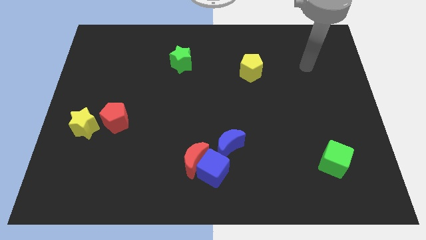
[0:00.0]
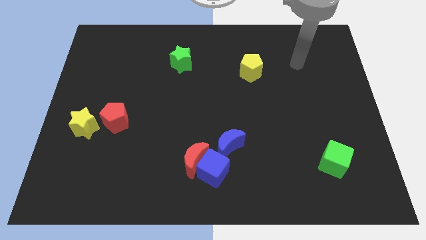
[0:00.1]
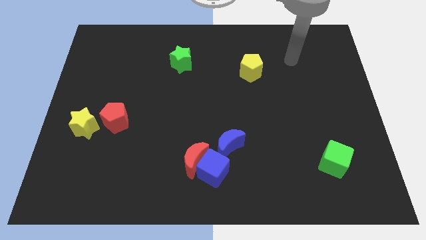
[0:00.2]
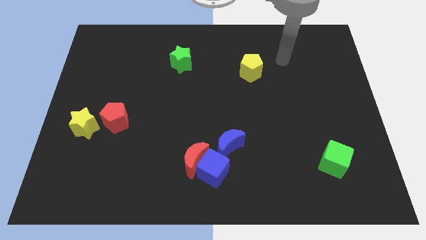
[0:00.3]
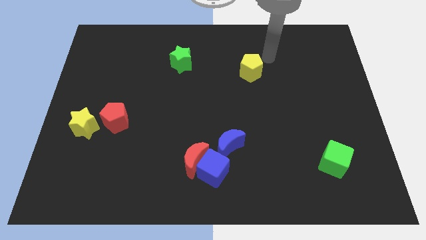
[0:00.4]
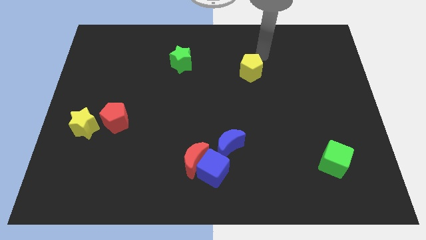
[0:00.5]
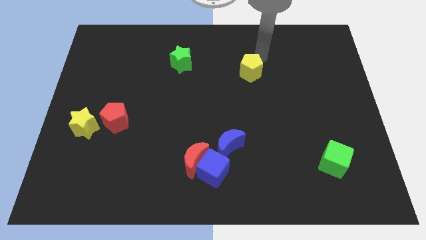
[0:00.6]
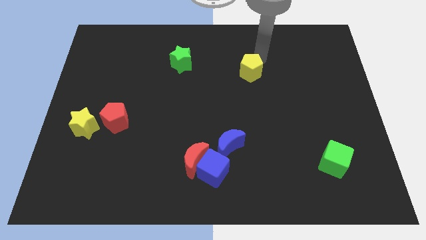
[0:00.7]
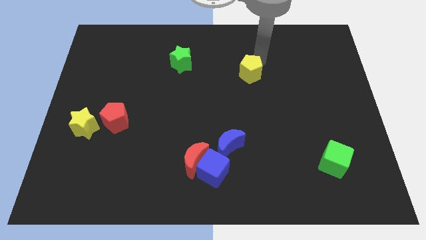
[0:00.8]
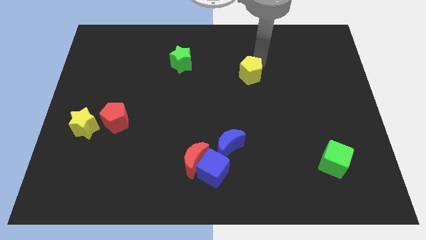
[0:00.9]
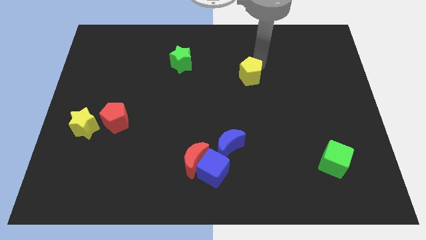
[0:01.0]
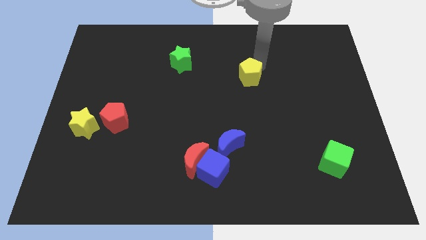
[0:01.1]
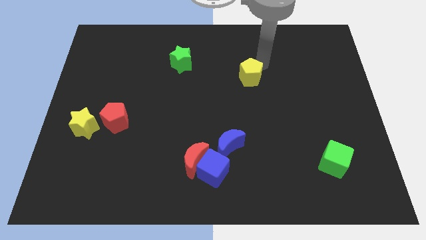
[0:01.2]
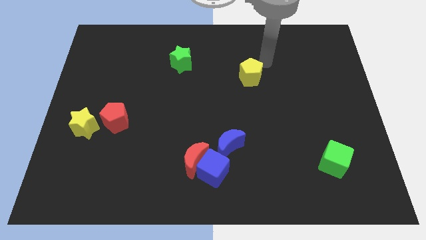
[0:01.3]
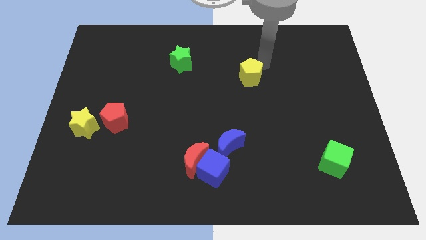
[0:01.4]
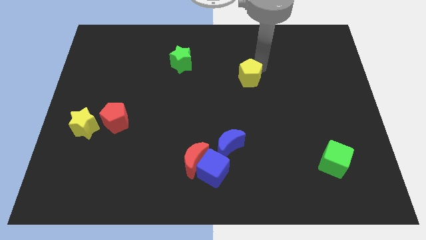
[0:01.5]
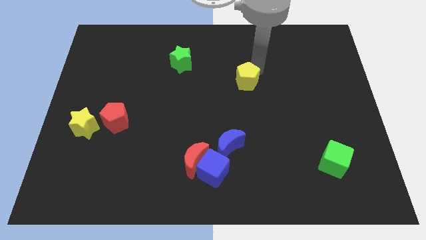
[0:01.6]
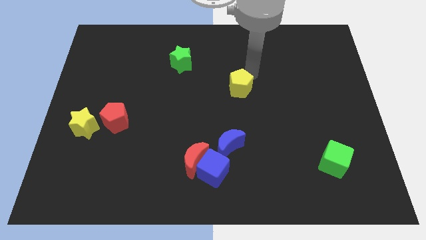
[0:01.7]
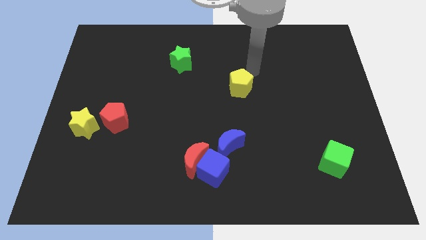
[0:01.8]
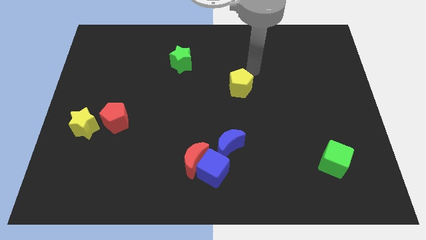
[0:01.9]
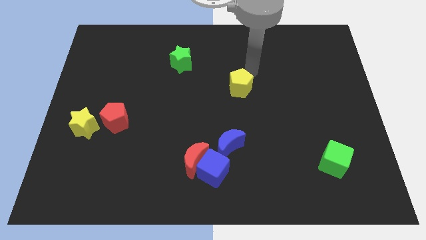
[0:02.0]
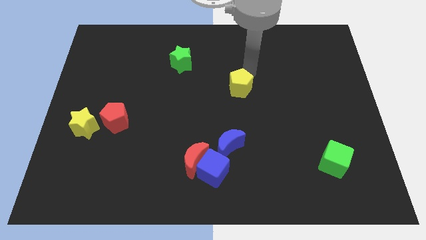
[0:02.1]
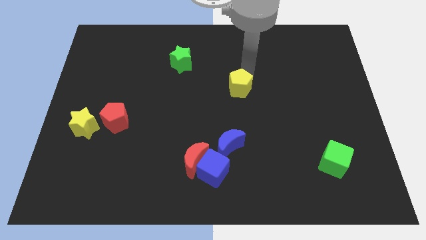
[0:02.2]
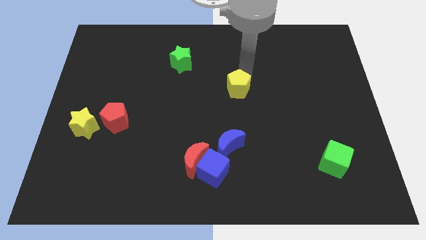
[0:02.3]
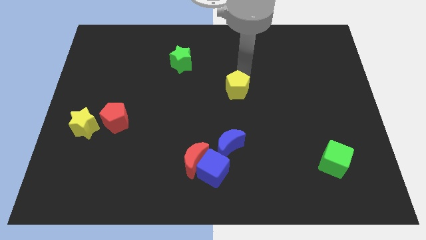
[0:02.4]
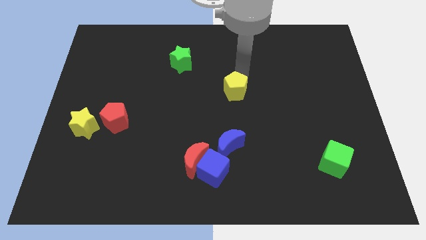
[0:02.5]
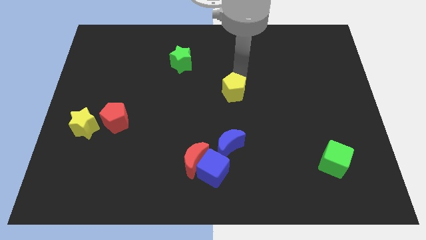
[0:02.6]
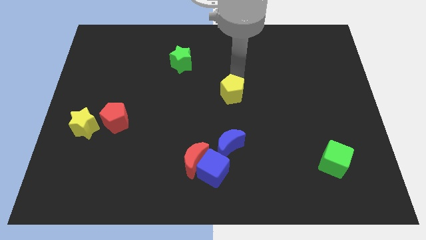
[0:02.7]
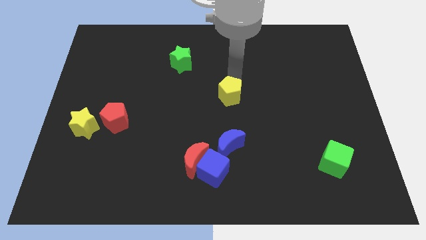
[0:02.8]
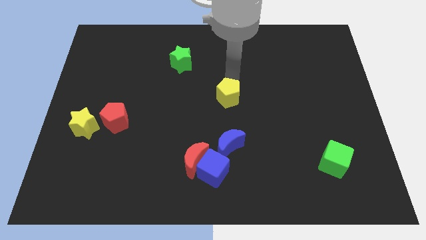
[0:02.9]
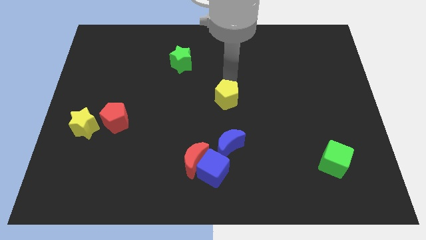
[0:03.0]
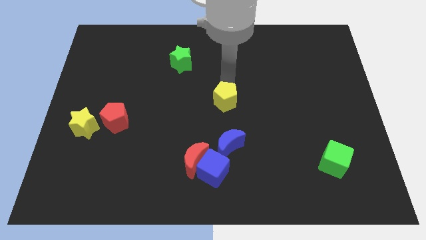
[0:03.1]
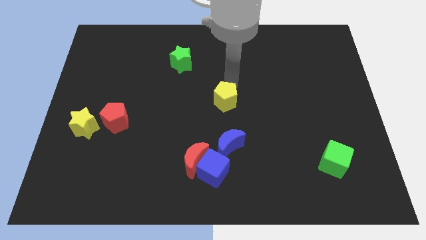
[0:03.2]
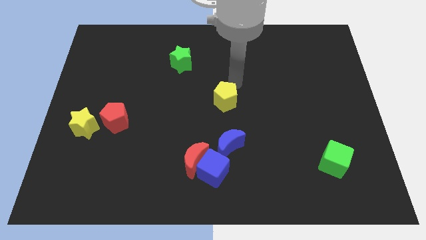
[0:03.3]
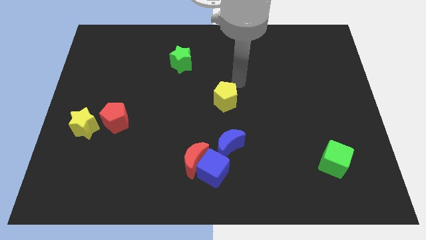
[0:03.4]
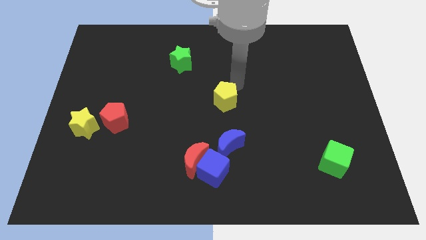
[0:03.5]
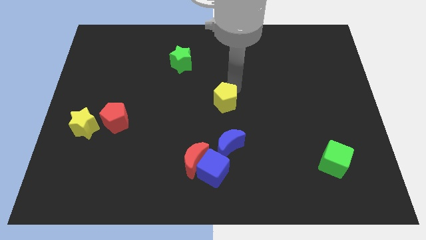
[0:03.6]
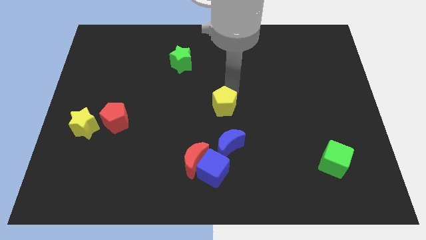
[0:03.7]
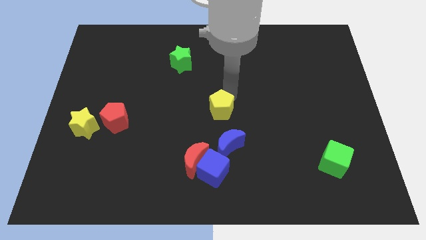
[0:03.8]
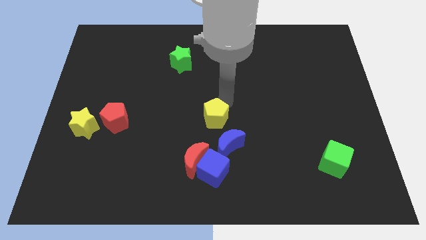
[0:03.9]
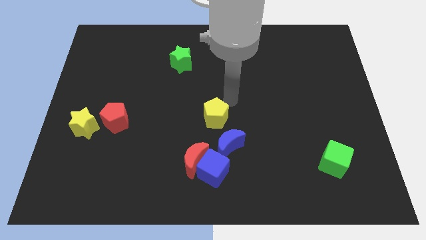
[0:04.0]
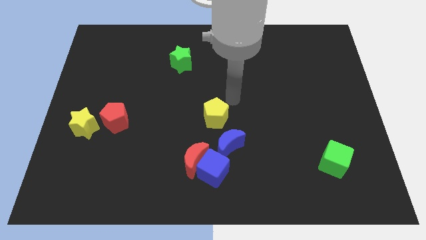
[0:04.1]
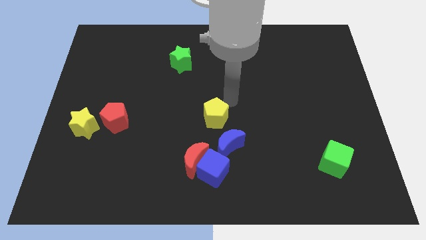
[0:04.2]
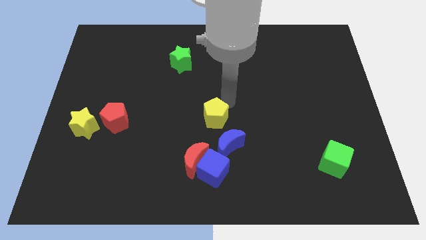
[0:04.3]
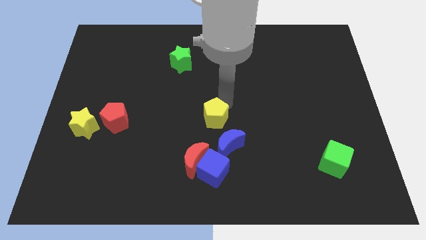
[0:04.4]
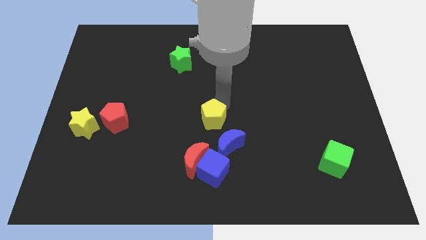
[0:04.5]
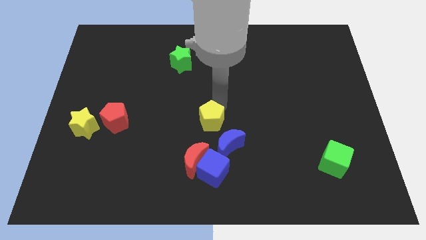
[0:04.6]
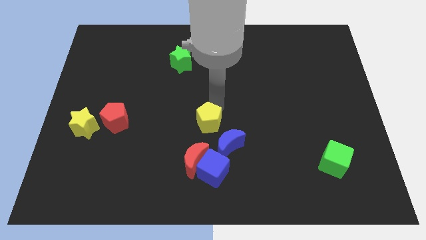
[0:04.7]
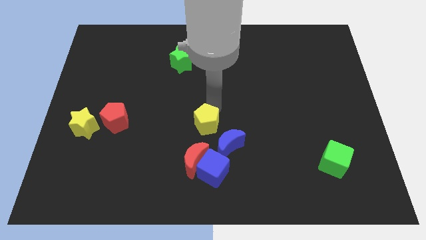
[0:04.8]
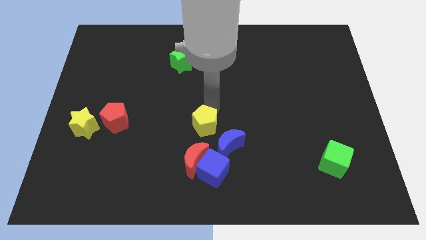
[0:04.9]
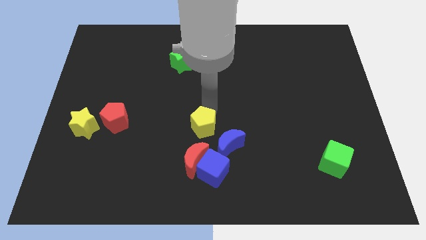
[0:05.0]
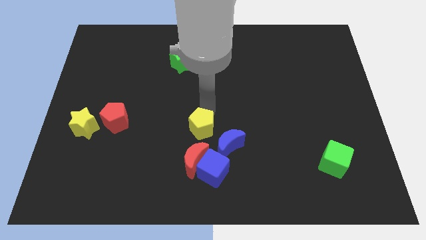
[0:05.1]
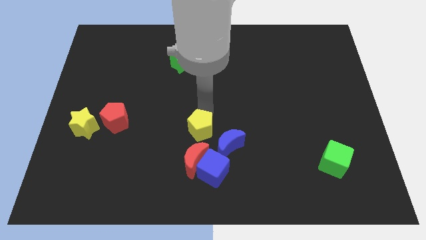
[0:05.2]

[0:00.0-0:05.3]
slide the yellow pentagon to the left of the blue moon

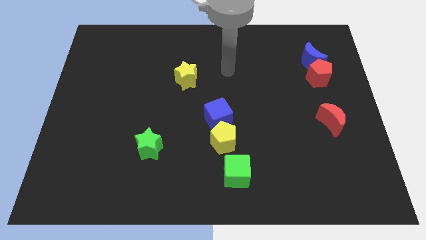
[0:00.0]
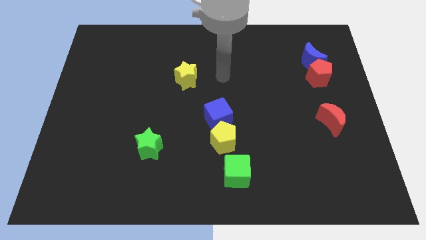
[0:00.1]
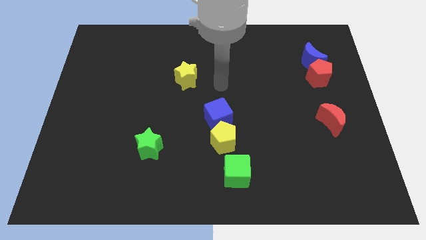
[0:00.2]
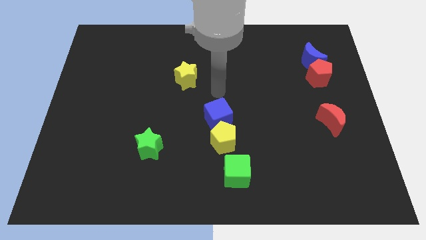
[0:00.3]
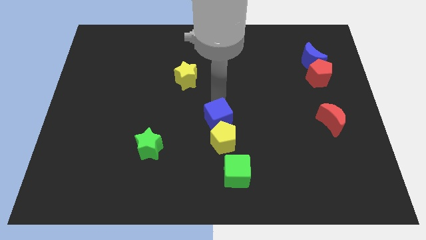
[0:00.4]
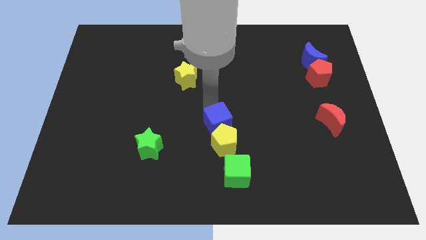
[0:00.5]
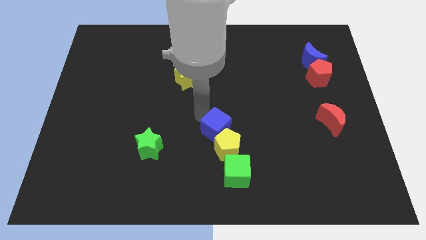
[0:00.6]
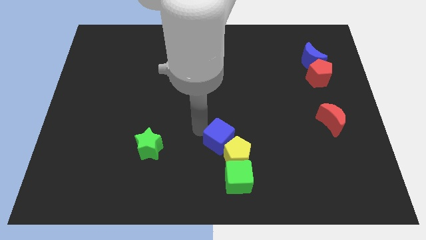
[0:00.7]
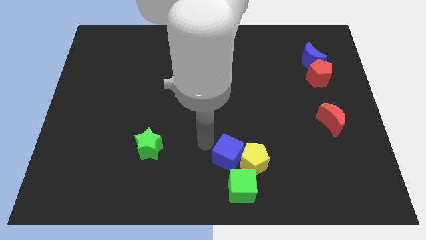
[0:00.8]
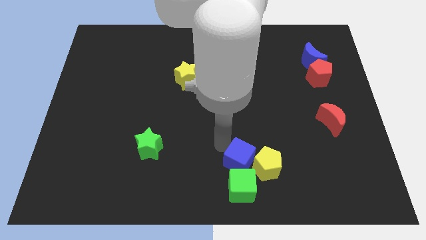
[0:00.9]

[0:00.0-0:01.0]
put the yellow pentagon to the right of the green cube
